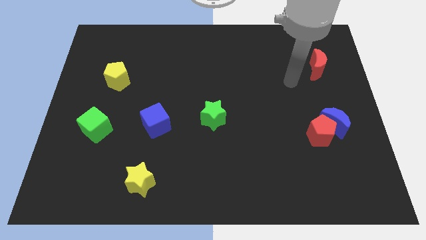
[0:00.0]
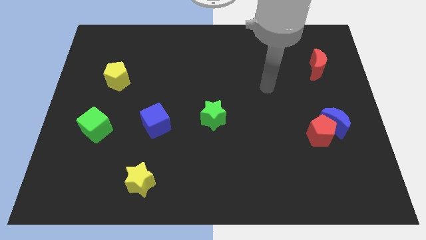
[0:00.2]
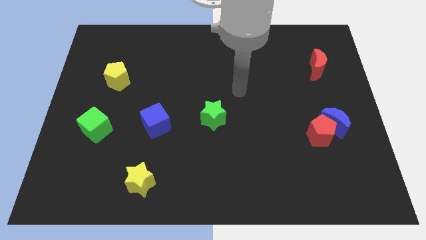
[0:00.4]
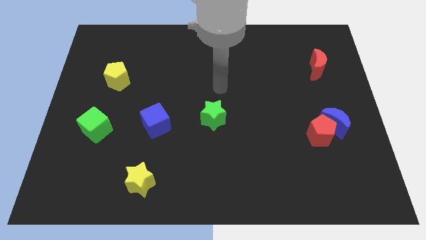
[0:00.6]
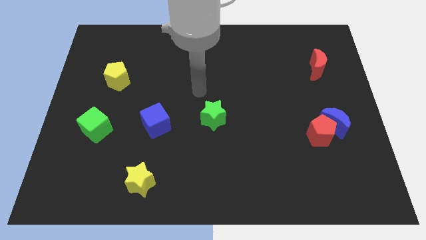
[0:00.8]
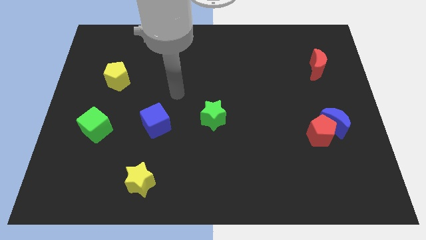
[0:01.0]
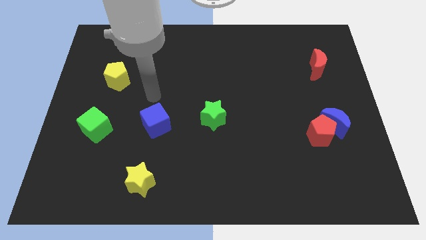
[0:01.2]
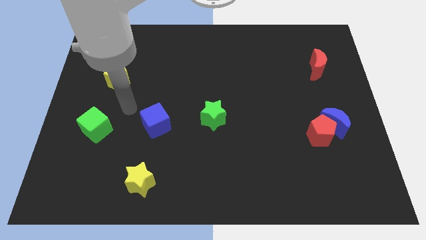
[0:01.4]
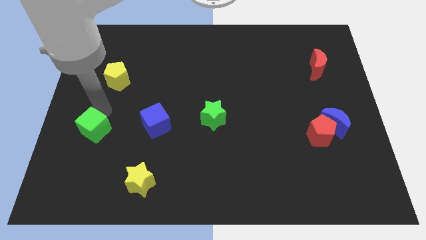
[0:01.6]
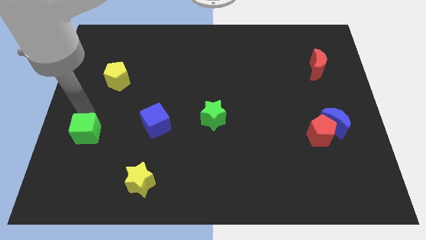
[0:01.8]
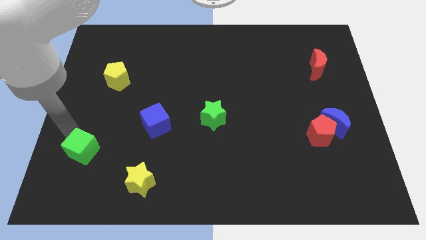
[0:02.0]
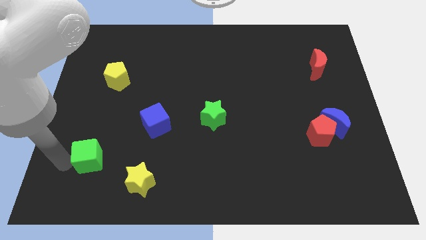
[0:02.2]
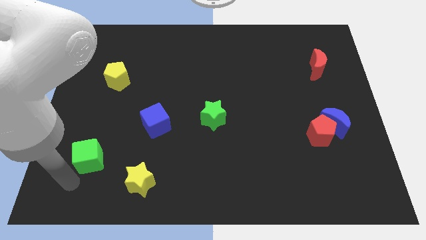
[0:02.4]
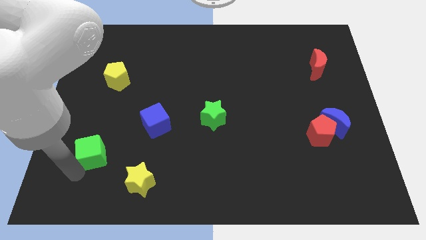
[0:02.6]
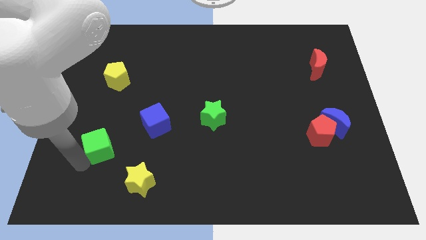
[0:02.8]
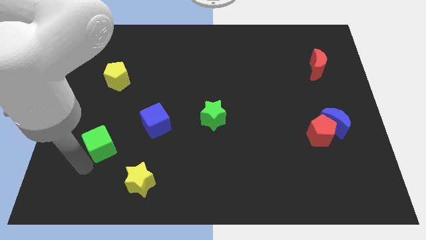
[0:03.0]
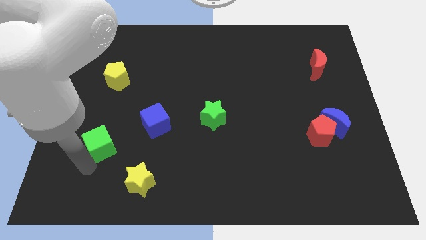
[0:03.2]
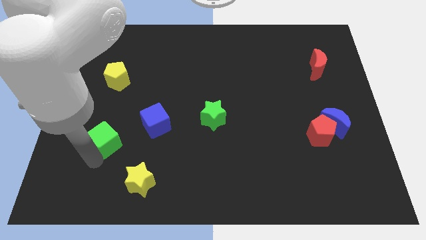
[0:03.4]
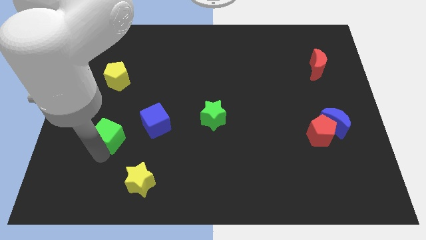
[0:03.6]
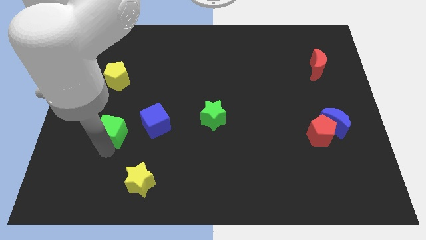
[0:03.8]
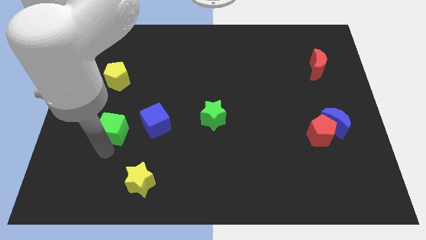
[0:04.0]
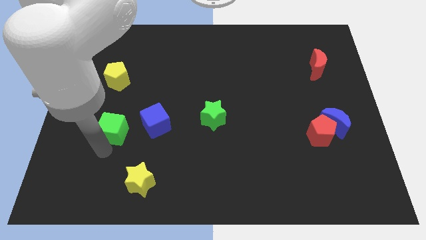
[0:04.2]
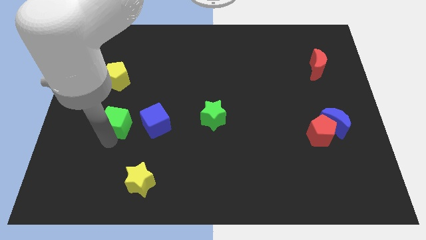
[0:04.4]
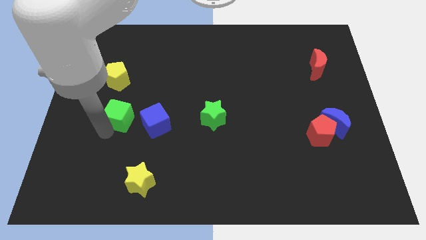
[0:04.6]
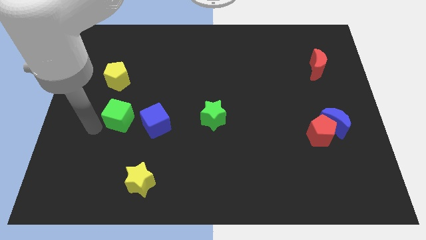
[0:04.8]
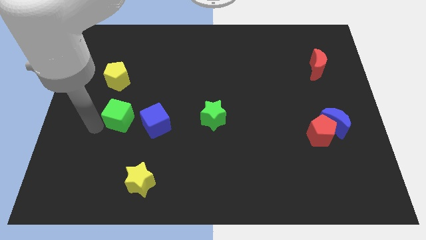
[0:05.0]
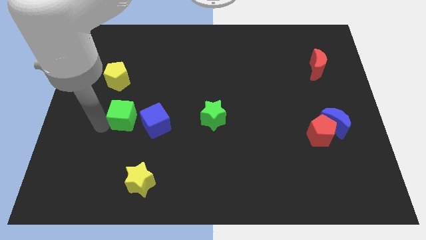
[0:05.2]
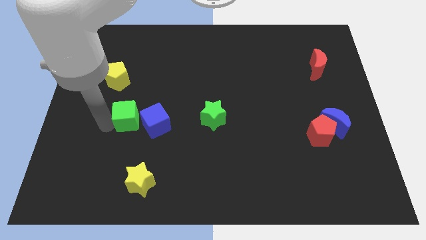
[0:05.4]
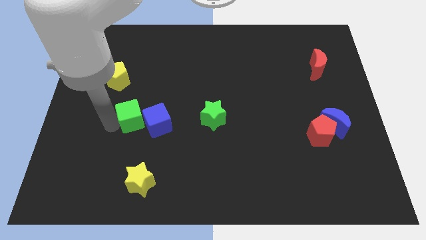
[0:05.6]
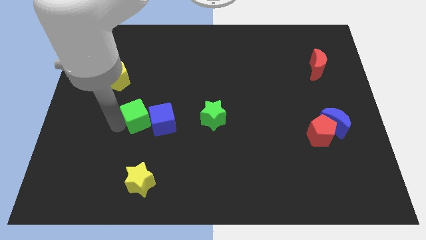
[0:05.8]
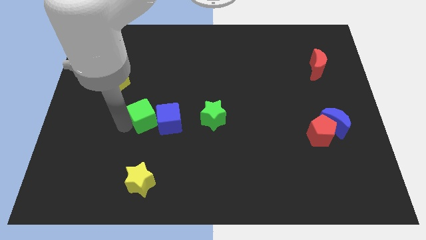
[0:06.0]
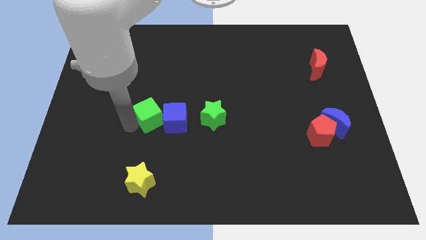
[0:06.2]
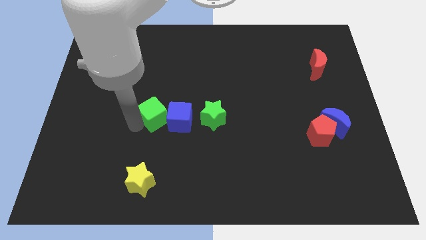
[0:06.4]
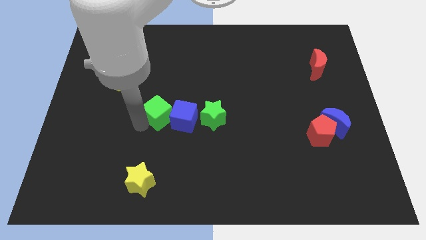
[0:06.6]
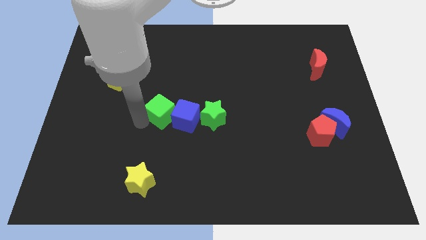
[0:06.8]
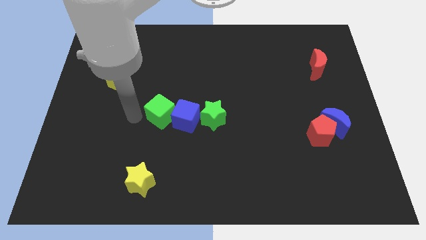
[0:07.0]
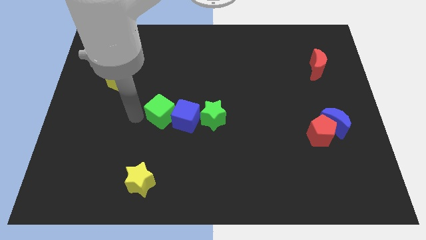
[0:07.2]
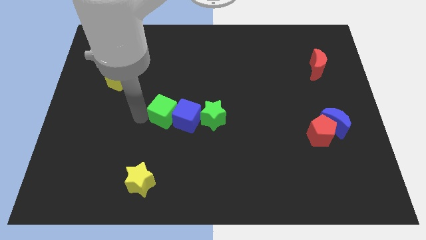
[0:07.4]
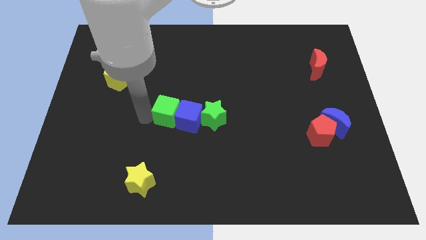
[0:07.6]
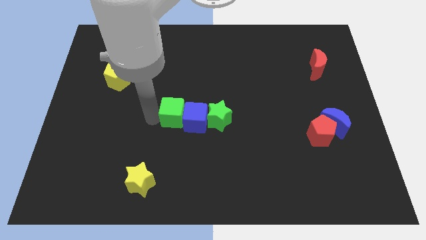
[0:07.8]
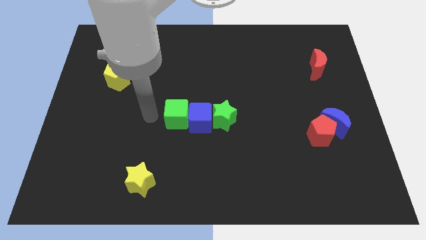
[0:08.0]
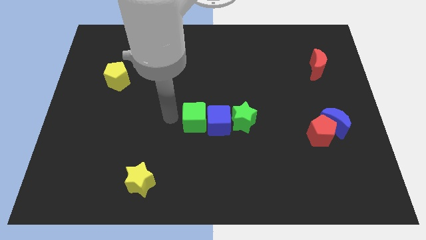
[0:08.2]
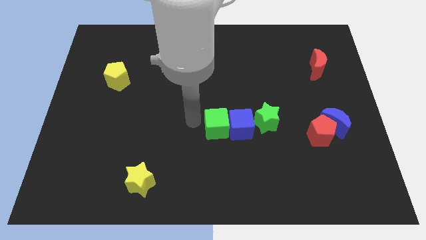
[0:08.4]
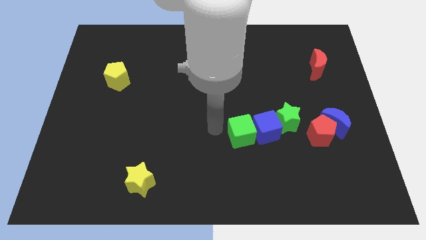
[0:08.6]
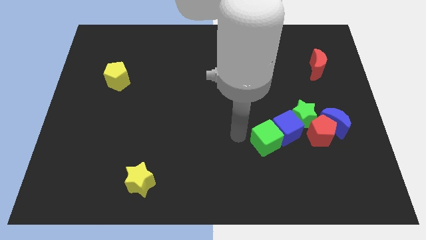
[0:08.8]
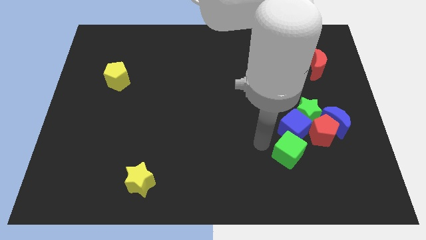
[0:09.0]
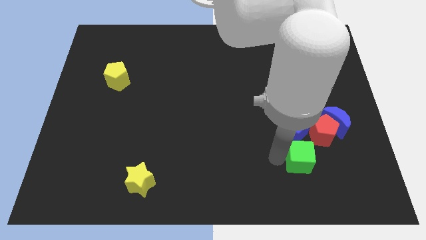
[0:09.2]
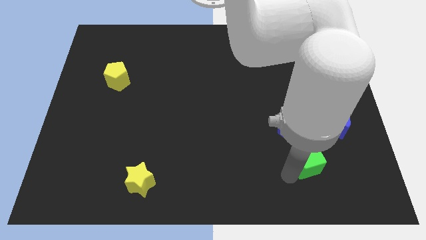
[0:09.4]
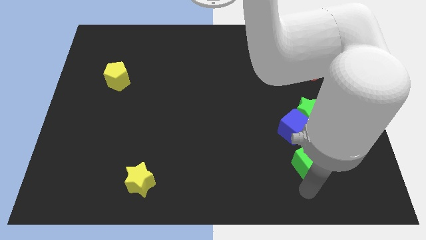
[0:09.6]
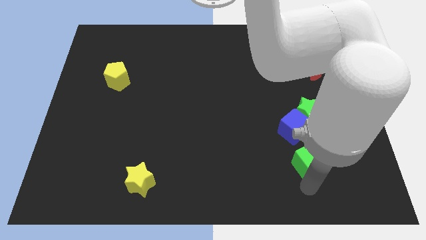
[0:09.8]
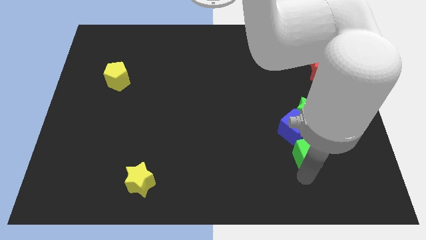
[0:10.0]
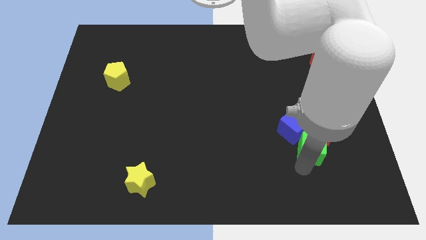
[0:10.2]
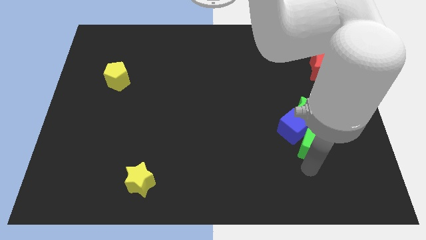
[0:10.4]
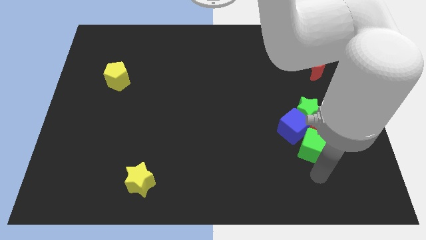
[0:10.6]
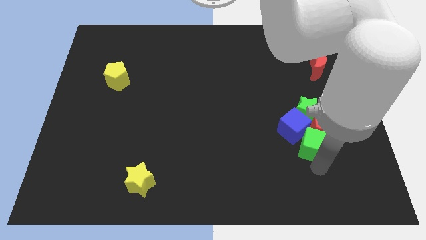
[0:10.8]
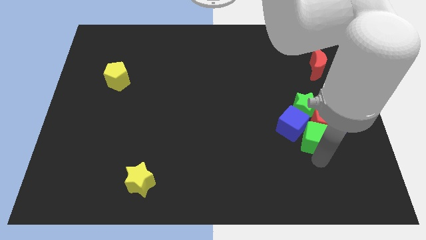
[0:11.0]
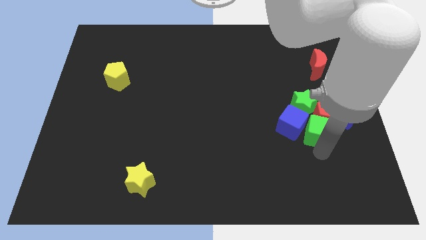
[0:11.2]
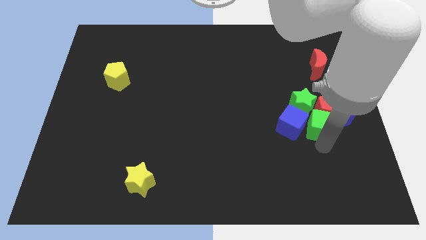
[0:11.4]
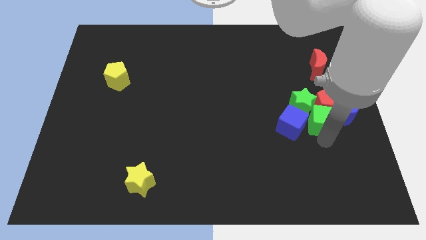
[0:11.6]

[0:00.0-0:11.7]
move the green cube next to the green star

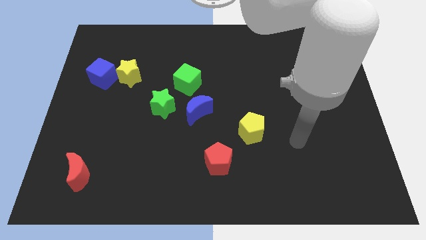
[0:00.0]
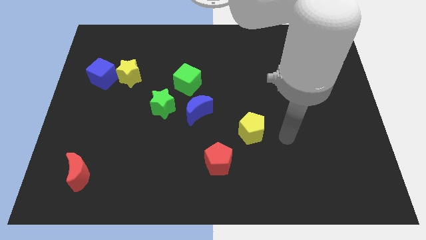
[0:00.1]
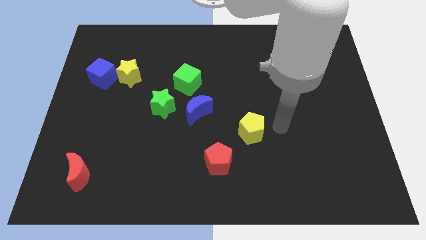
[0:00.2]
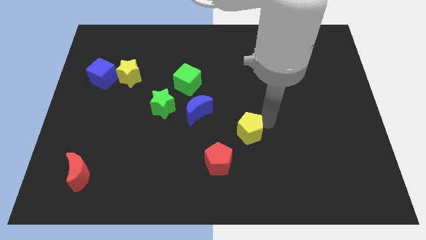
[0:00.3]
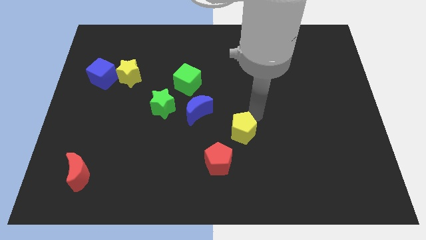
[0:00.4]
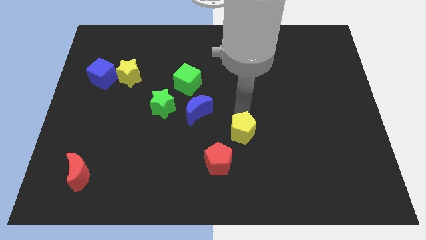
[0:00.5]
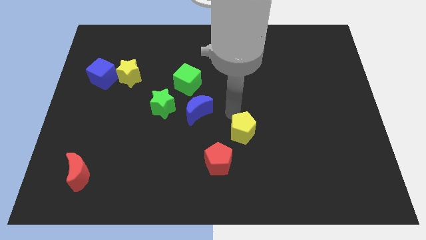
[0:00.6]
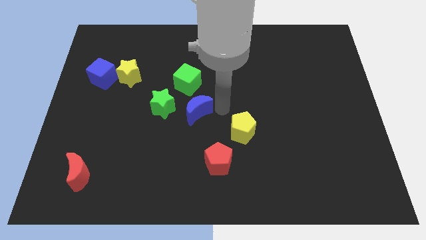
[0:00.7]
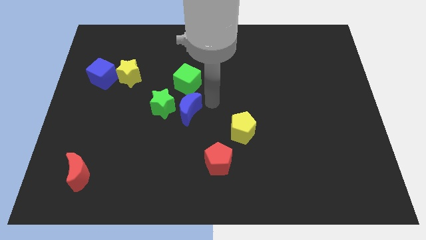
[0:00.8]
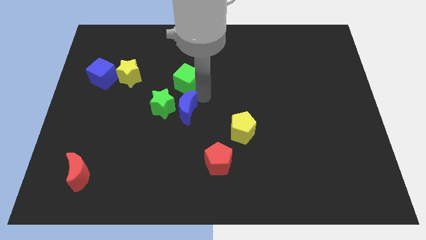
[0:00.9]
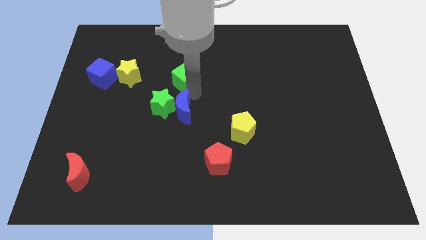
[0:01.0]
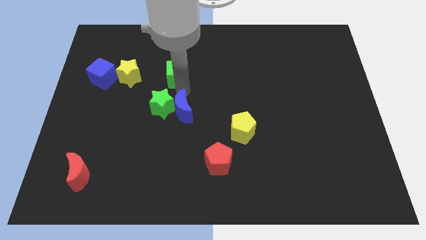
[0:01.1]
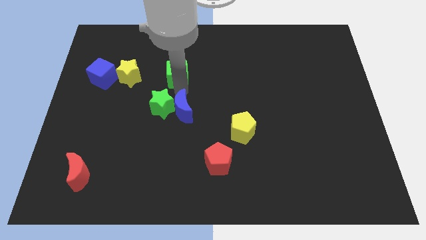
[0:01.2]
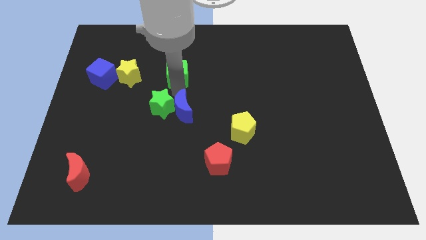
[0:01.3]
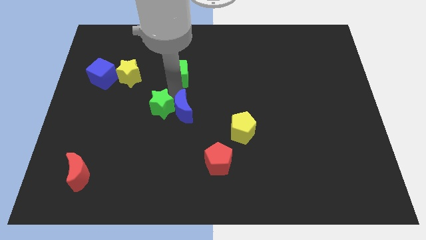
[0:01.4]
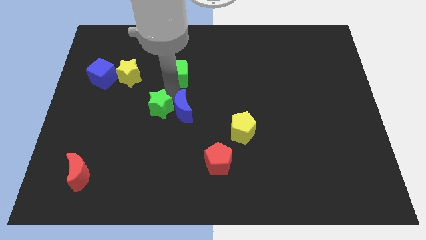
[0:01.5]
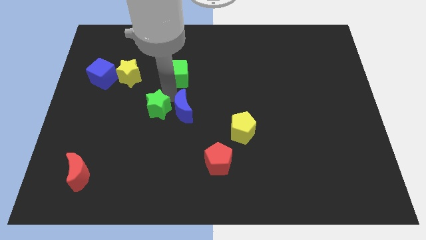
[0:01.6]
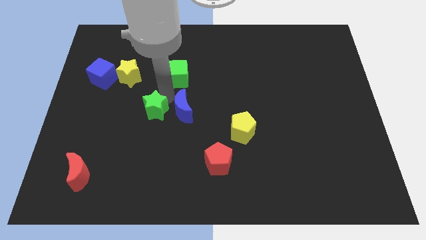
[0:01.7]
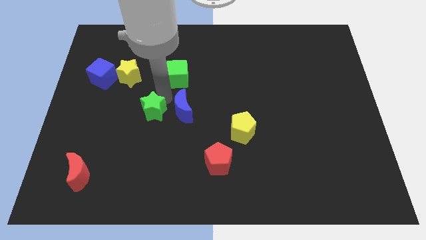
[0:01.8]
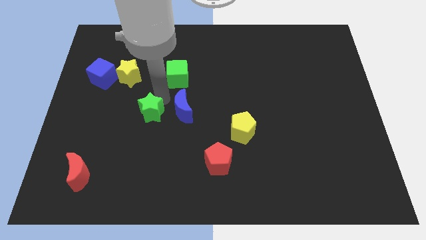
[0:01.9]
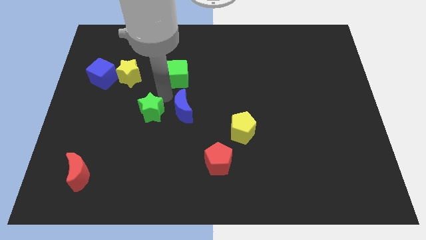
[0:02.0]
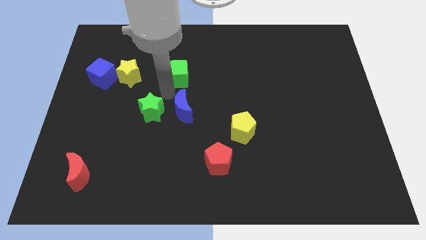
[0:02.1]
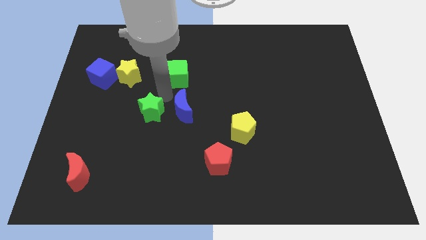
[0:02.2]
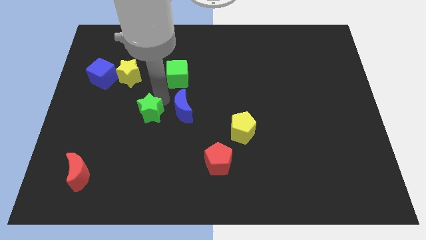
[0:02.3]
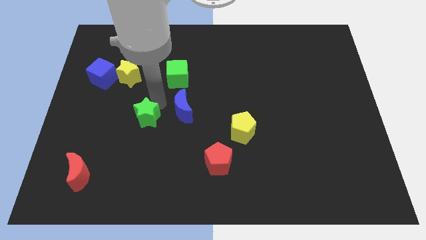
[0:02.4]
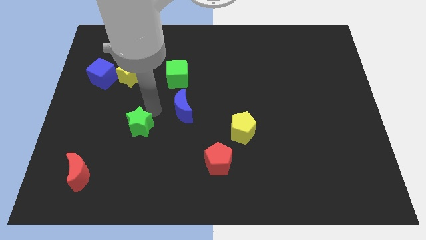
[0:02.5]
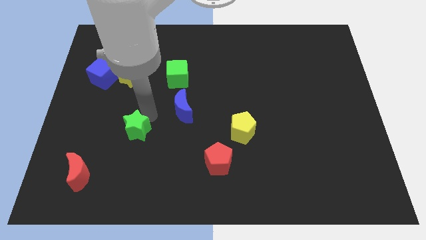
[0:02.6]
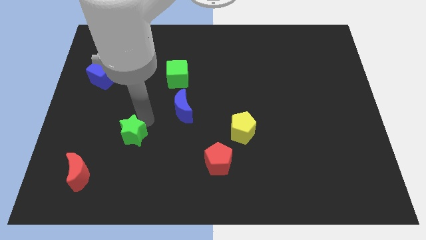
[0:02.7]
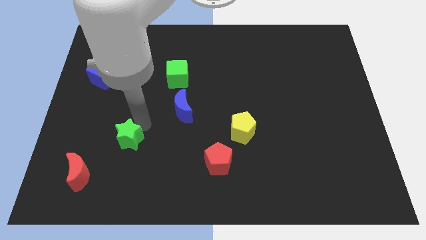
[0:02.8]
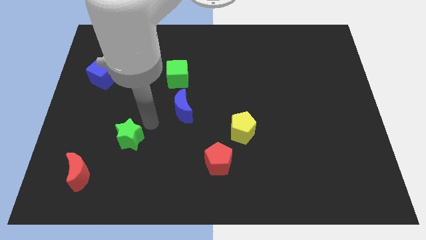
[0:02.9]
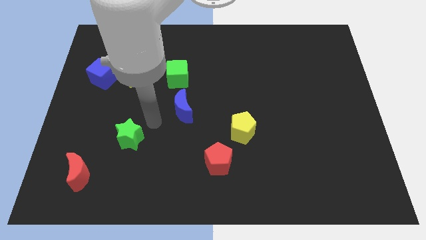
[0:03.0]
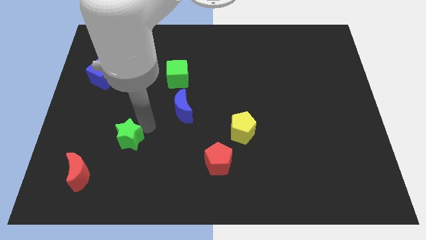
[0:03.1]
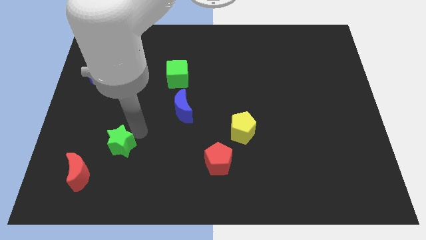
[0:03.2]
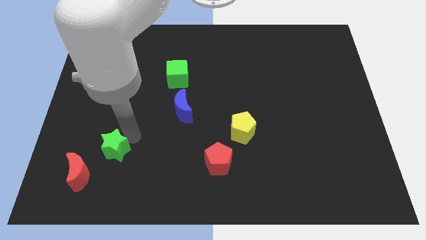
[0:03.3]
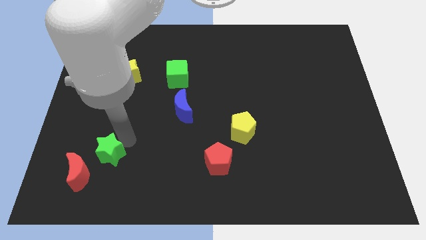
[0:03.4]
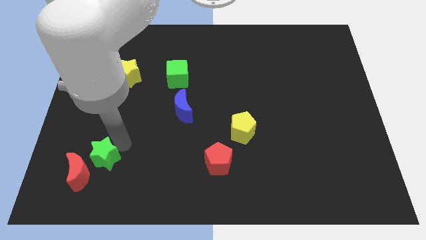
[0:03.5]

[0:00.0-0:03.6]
put the green star towards the red moon
